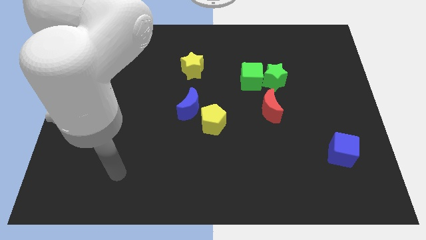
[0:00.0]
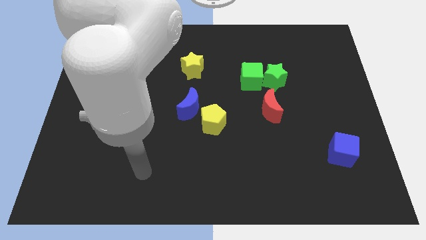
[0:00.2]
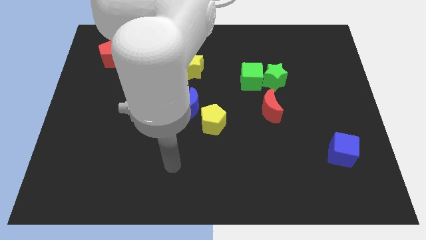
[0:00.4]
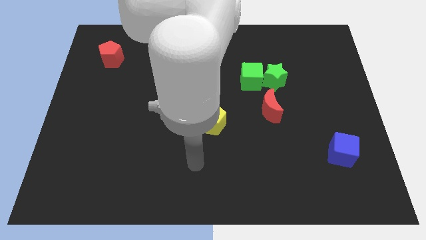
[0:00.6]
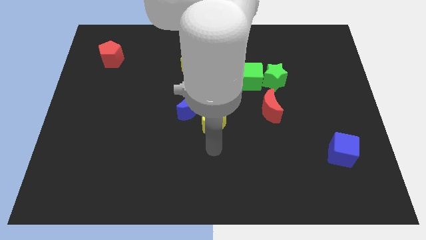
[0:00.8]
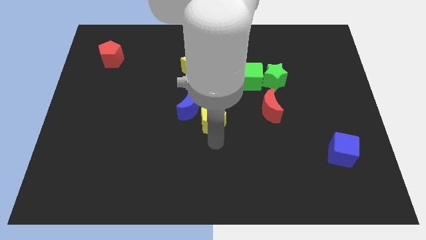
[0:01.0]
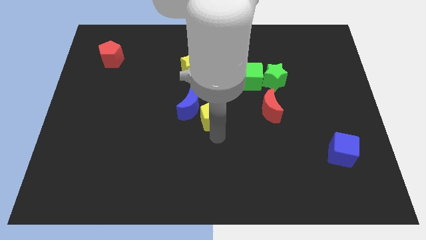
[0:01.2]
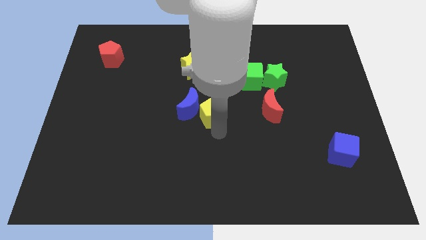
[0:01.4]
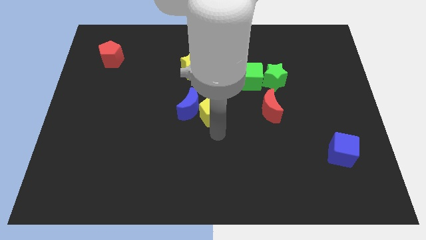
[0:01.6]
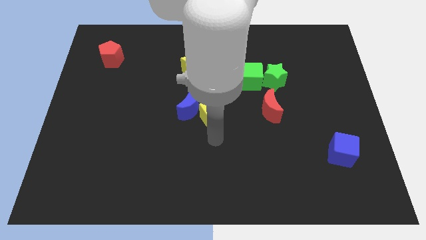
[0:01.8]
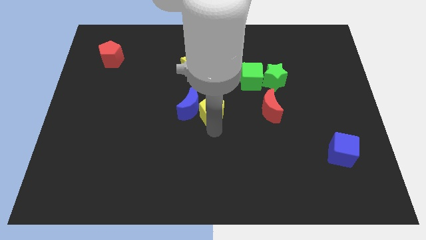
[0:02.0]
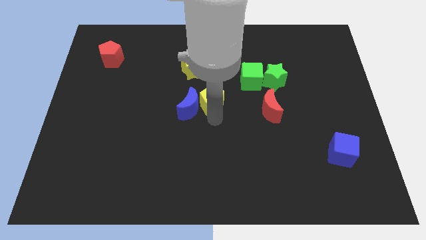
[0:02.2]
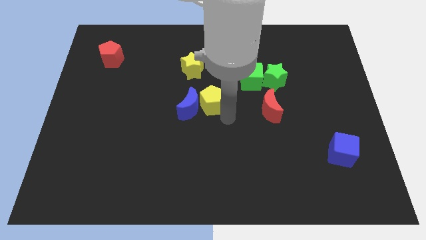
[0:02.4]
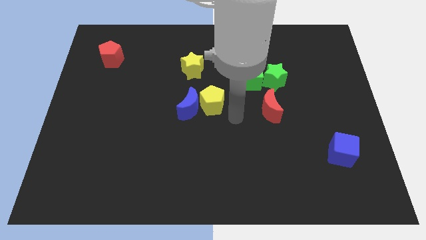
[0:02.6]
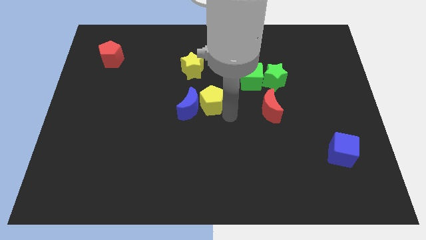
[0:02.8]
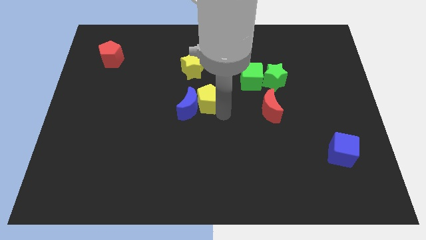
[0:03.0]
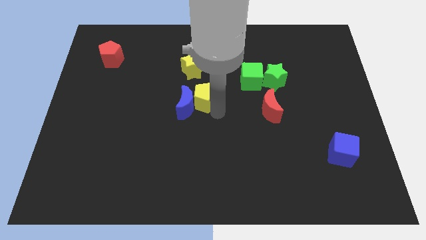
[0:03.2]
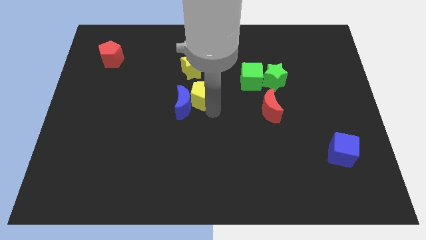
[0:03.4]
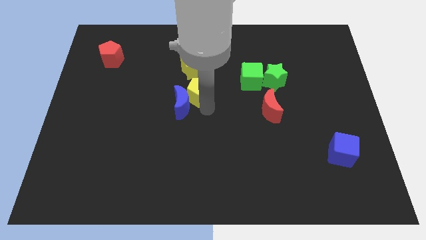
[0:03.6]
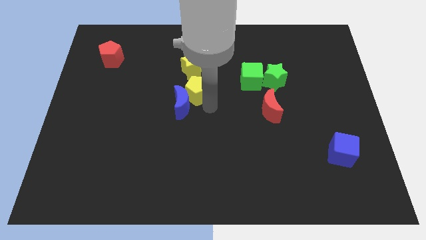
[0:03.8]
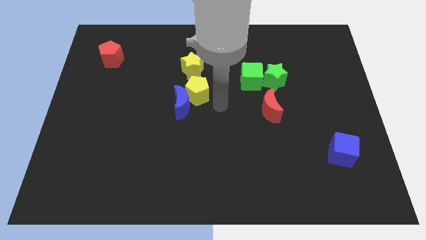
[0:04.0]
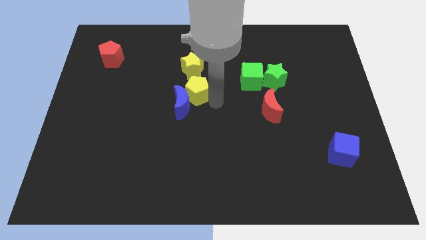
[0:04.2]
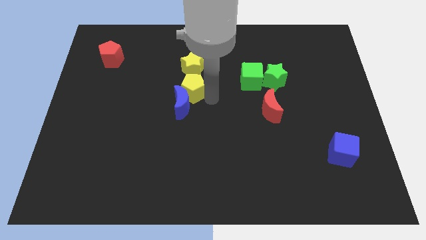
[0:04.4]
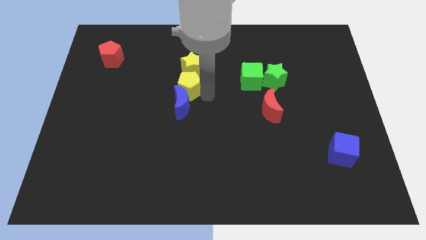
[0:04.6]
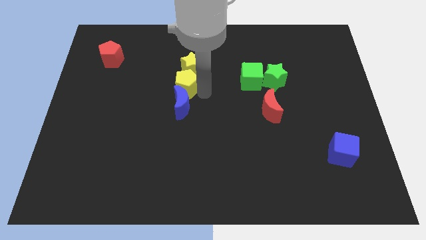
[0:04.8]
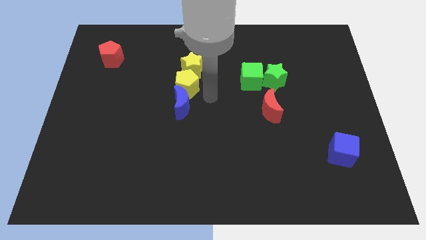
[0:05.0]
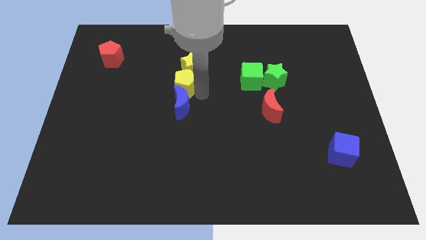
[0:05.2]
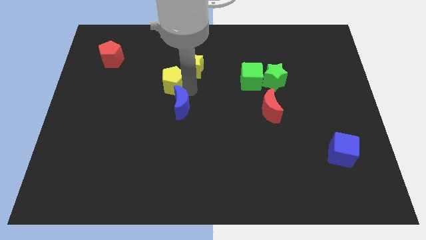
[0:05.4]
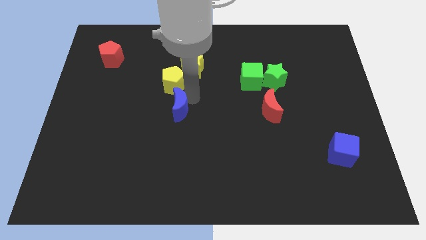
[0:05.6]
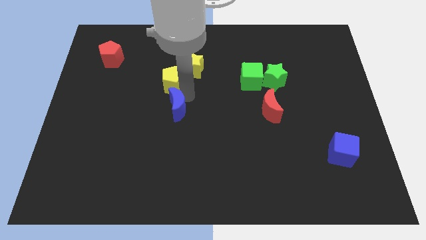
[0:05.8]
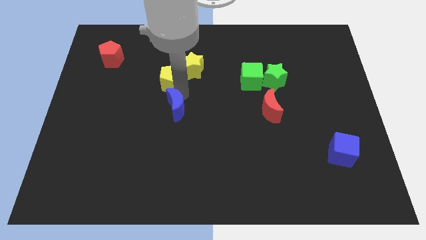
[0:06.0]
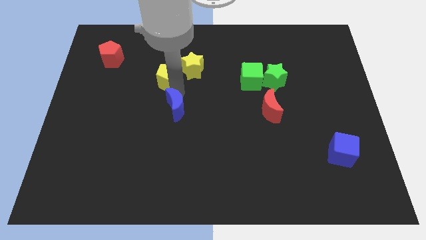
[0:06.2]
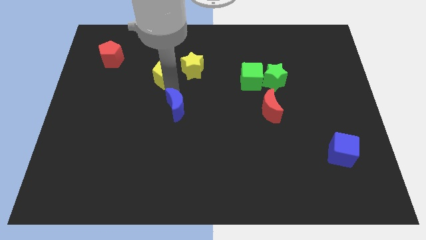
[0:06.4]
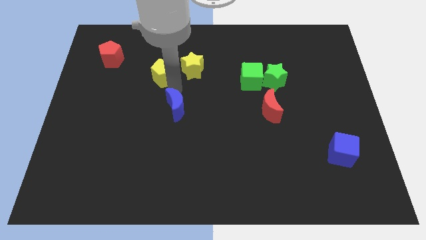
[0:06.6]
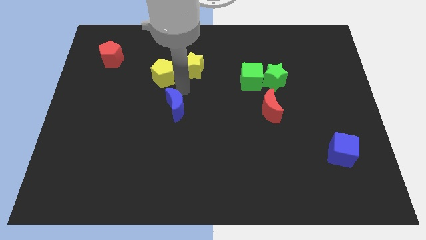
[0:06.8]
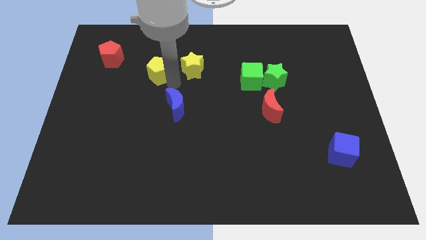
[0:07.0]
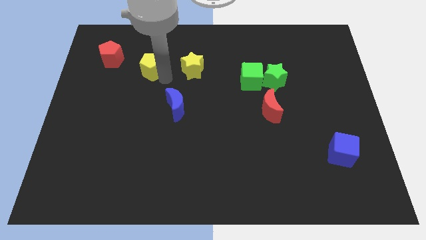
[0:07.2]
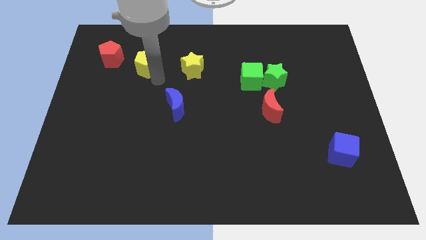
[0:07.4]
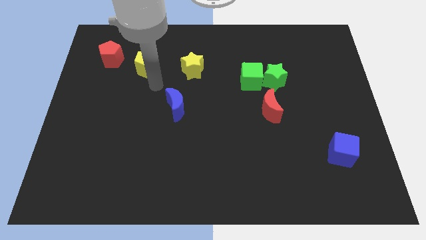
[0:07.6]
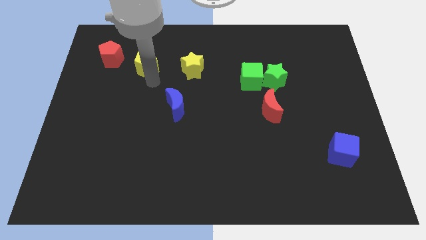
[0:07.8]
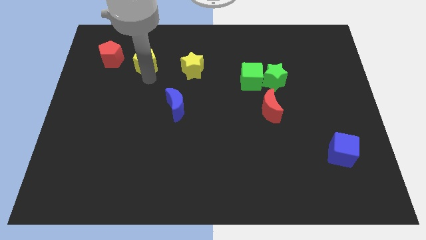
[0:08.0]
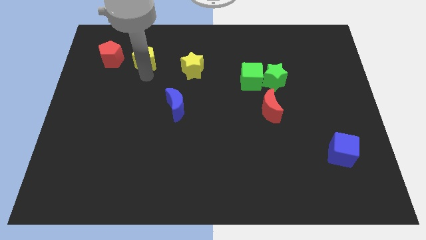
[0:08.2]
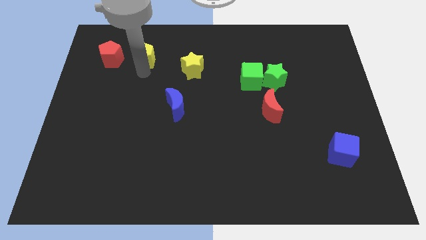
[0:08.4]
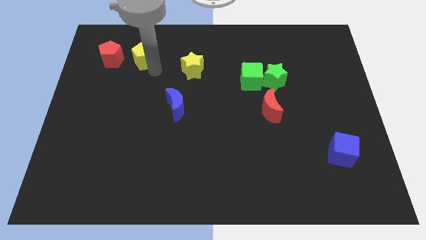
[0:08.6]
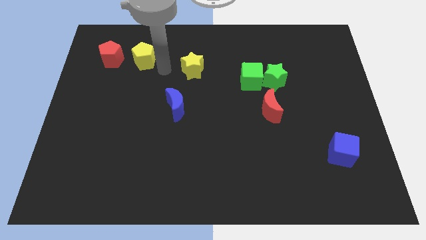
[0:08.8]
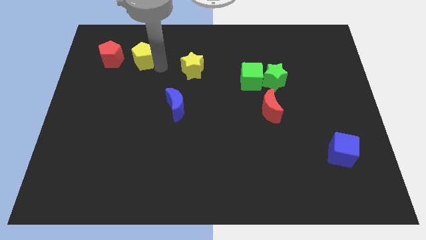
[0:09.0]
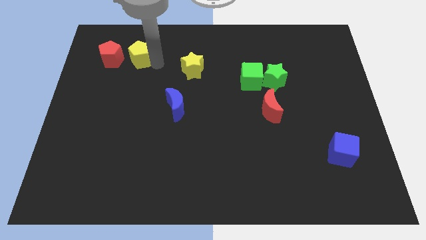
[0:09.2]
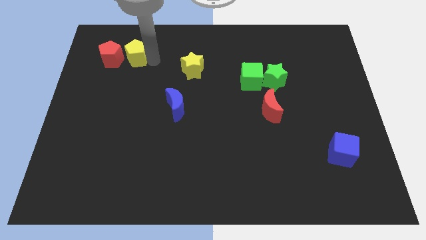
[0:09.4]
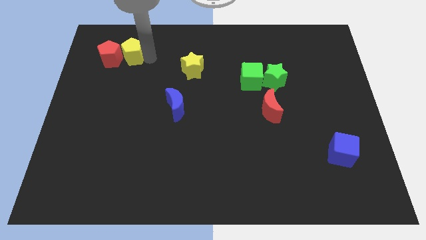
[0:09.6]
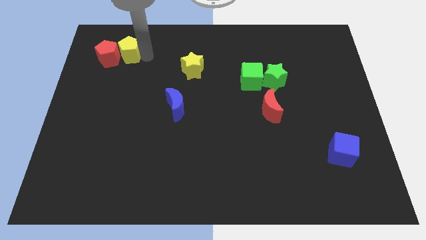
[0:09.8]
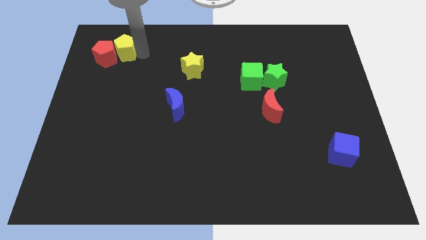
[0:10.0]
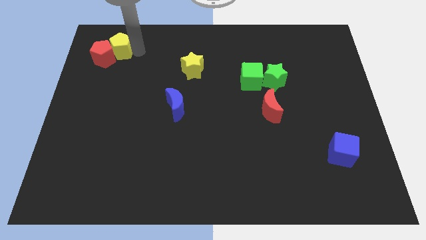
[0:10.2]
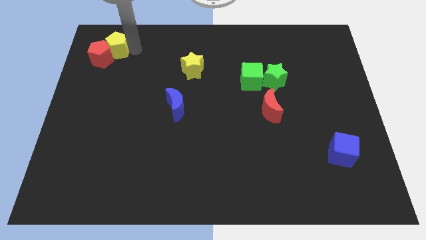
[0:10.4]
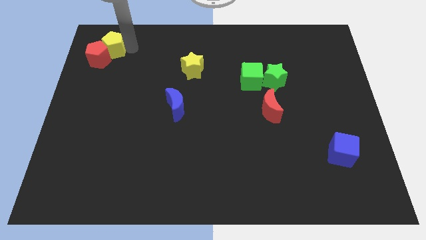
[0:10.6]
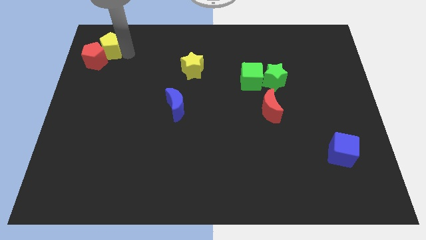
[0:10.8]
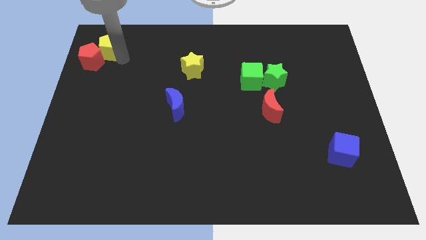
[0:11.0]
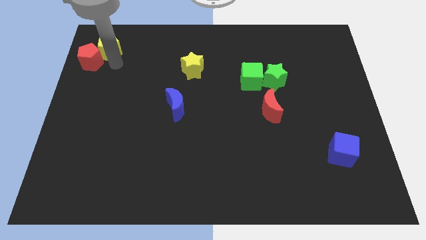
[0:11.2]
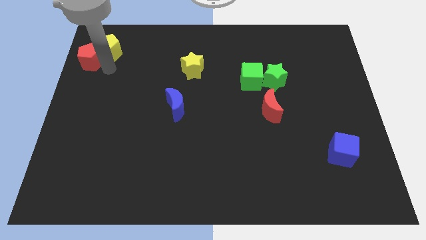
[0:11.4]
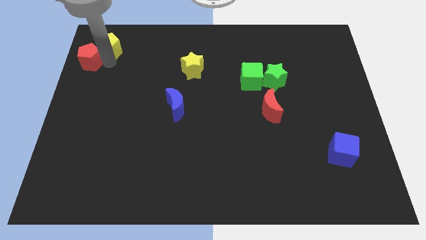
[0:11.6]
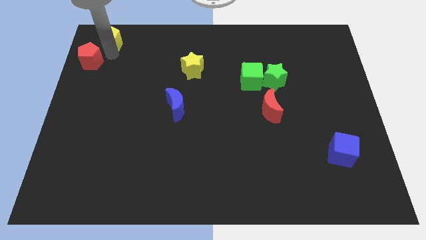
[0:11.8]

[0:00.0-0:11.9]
move the yellow pentagon to the upper left corner
